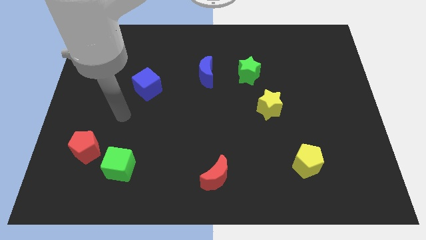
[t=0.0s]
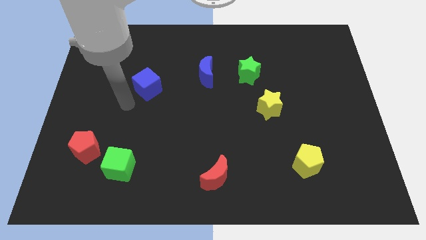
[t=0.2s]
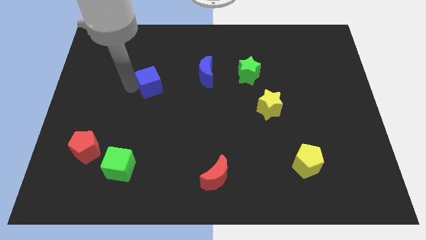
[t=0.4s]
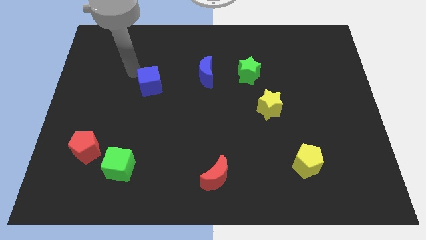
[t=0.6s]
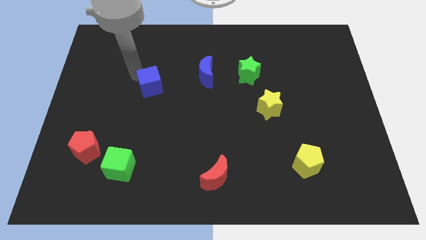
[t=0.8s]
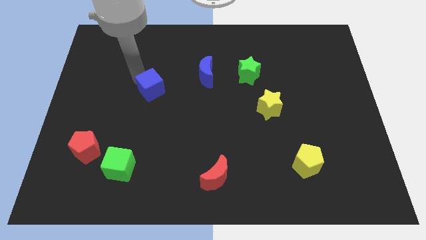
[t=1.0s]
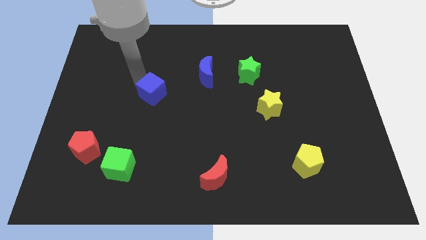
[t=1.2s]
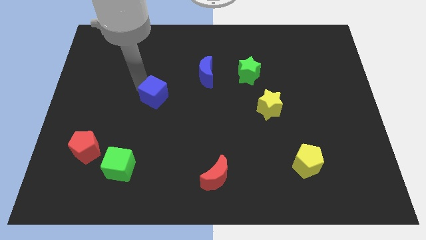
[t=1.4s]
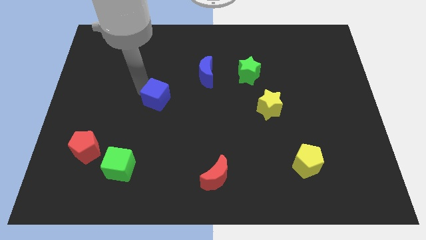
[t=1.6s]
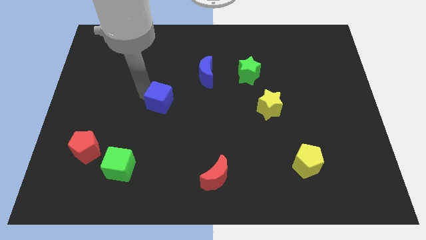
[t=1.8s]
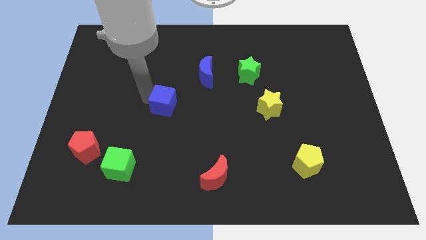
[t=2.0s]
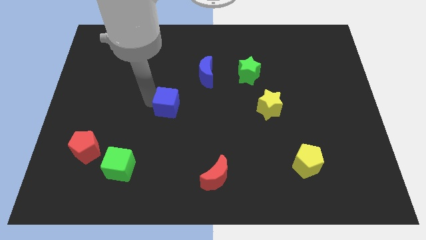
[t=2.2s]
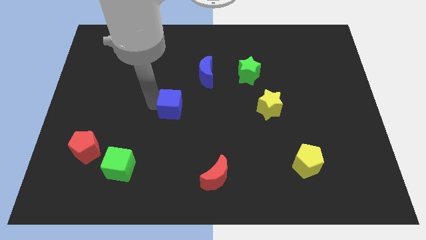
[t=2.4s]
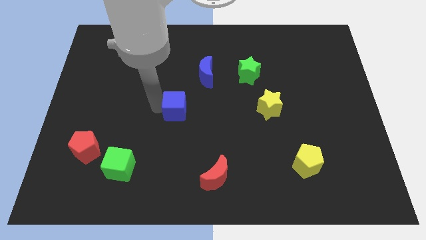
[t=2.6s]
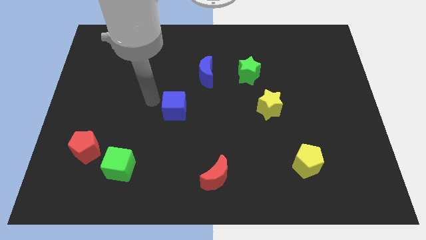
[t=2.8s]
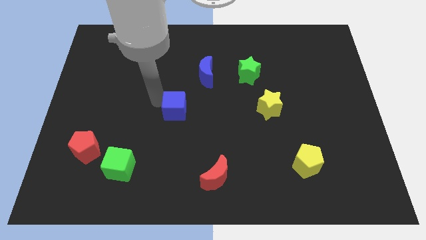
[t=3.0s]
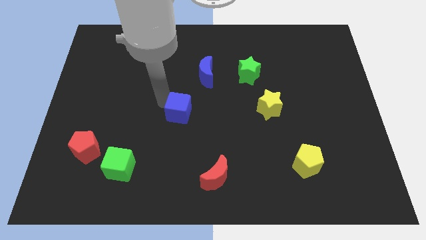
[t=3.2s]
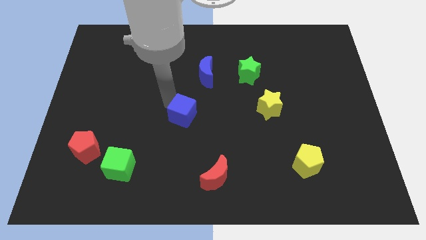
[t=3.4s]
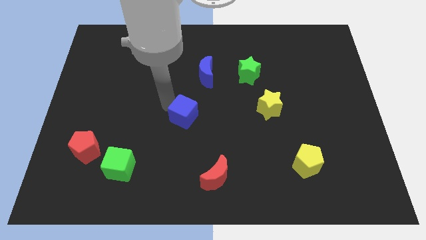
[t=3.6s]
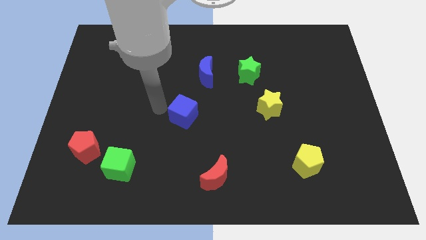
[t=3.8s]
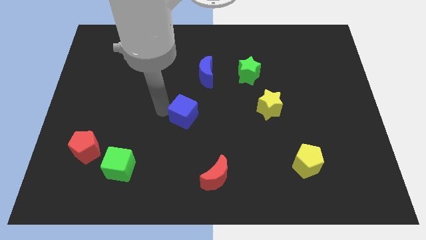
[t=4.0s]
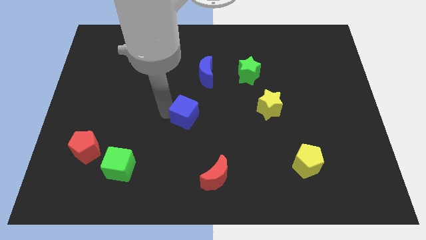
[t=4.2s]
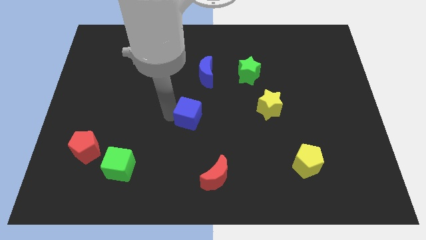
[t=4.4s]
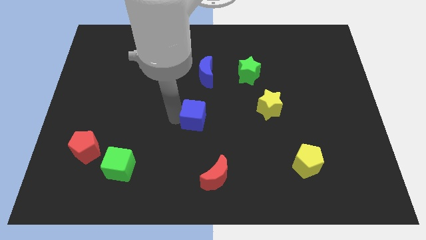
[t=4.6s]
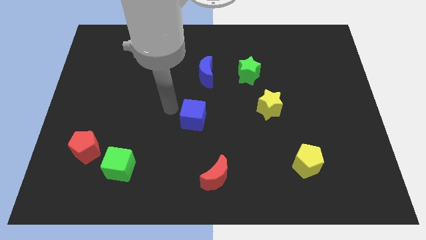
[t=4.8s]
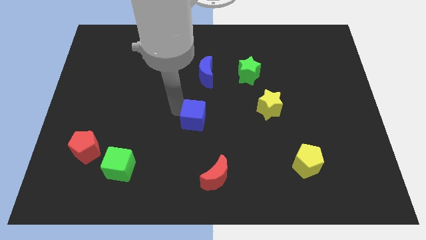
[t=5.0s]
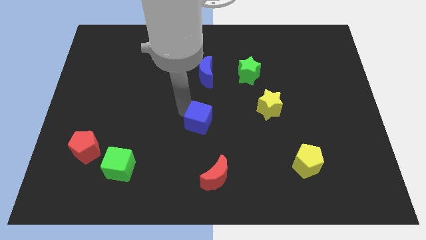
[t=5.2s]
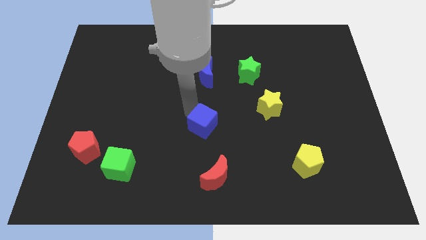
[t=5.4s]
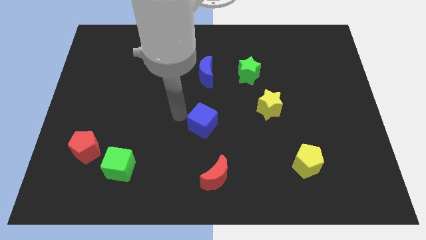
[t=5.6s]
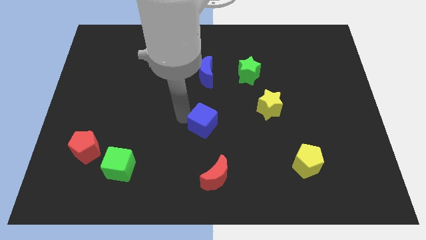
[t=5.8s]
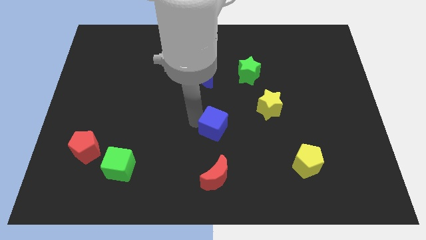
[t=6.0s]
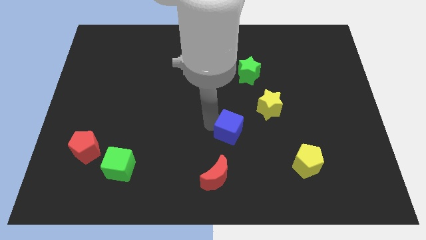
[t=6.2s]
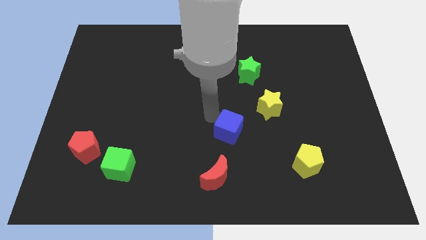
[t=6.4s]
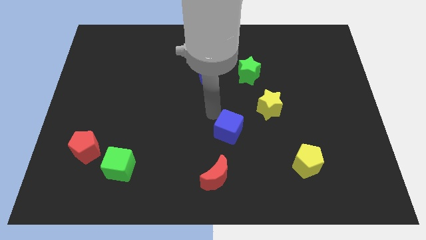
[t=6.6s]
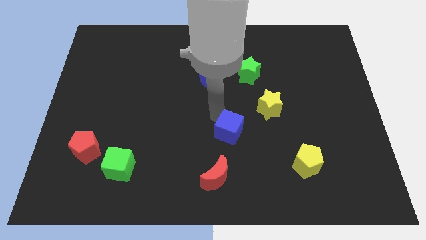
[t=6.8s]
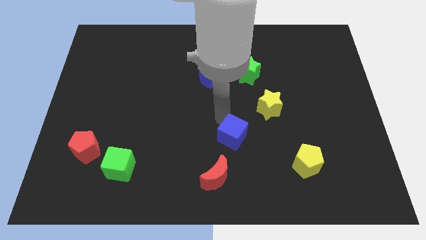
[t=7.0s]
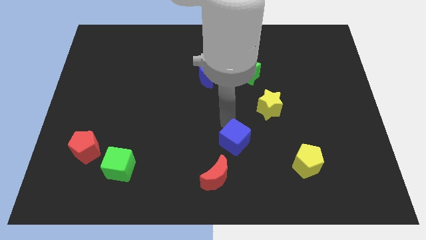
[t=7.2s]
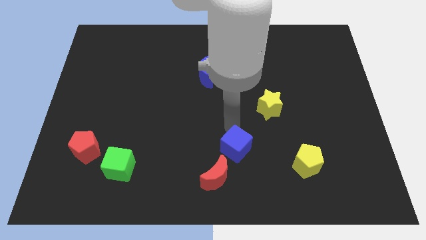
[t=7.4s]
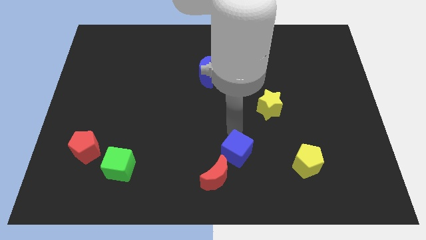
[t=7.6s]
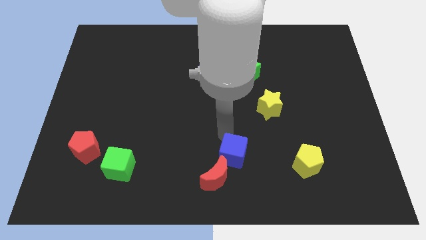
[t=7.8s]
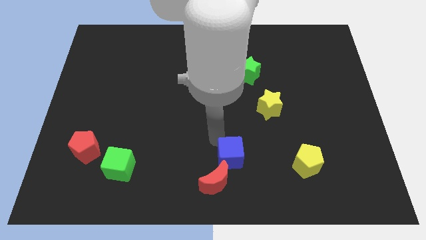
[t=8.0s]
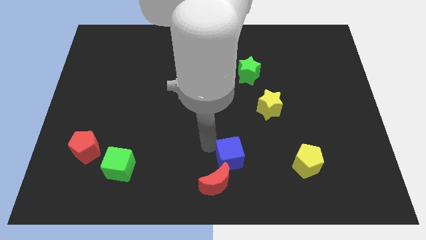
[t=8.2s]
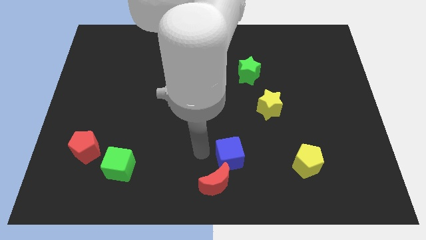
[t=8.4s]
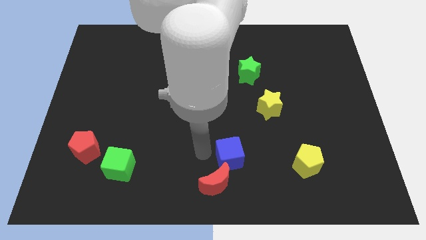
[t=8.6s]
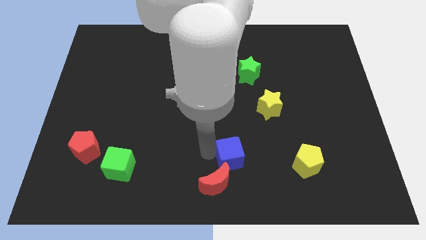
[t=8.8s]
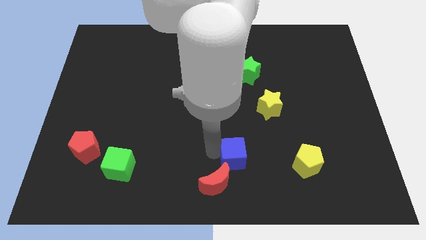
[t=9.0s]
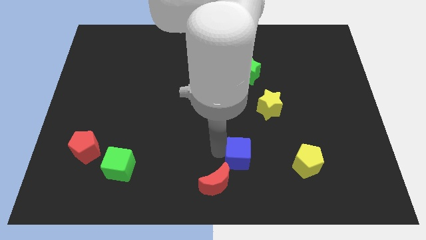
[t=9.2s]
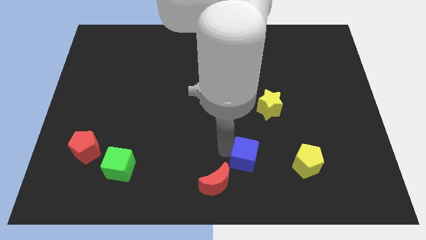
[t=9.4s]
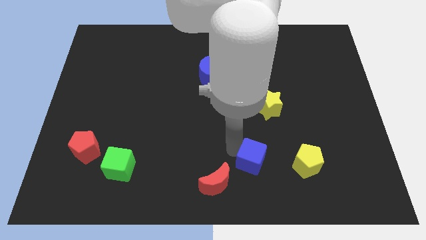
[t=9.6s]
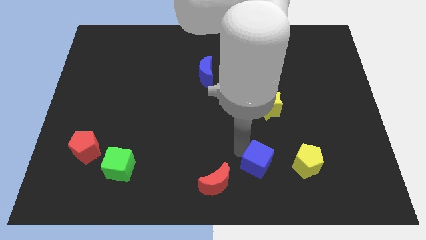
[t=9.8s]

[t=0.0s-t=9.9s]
slide the blue cube to the right of the red moon

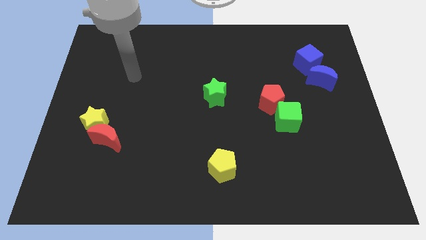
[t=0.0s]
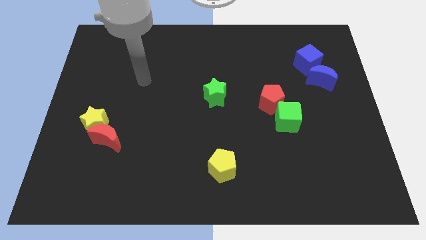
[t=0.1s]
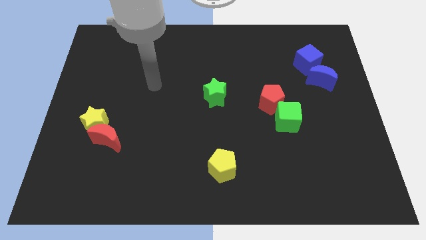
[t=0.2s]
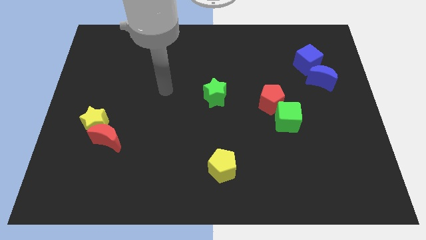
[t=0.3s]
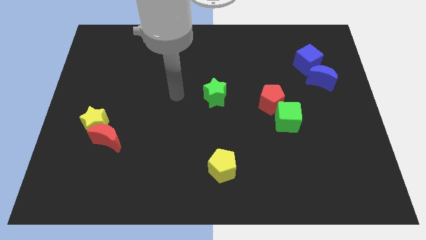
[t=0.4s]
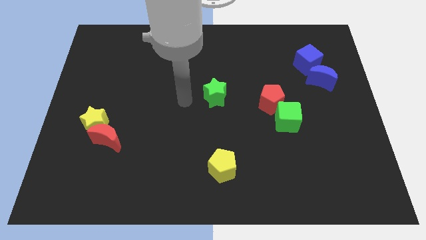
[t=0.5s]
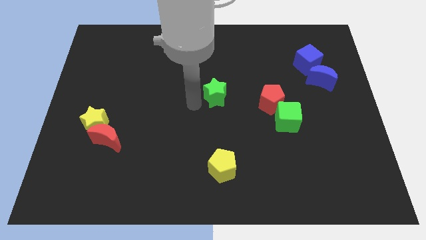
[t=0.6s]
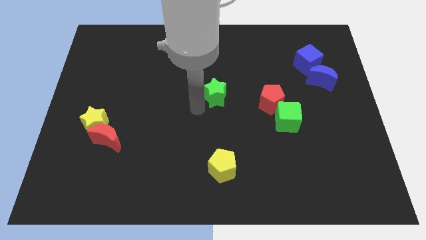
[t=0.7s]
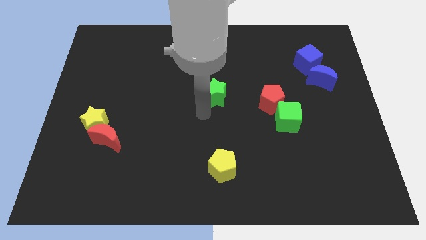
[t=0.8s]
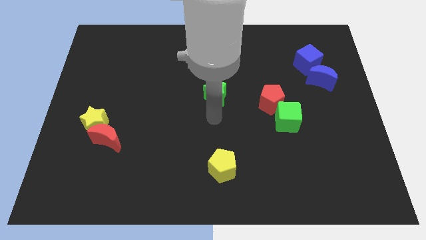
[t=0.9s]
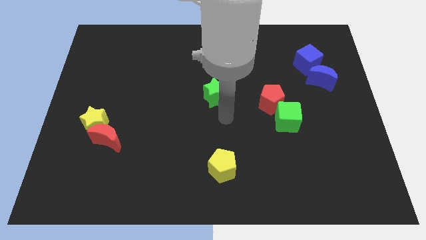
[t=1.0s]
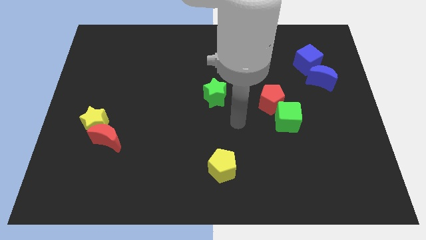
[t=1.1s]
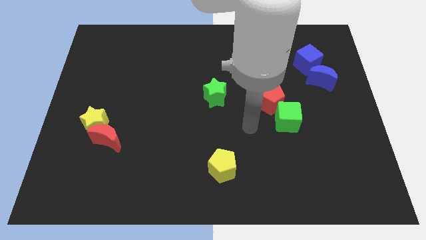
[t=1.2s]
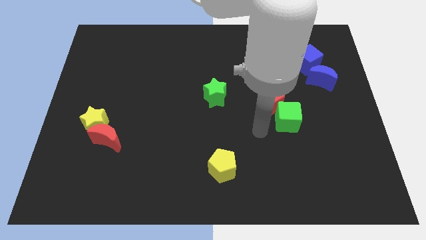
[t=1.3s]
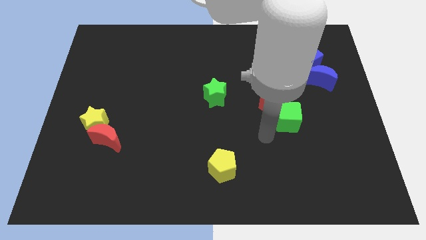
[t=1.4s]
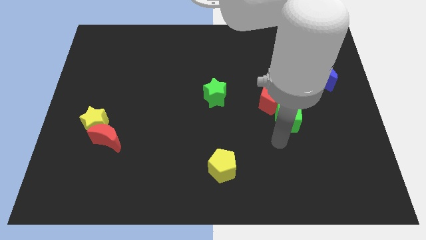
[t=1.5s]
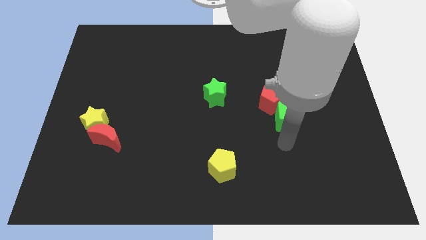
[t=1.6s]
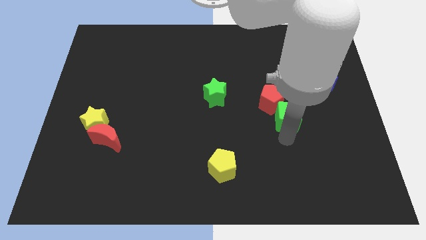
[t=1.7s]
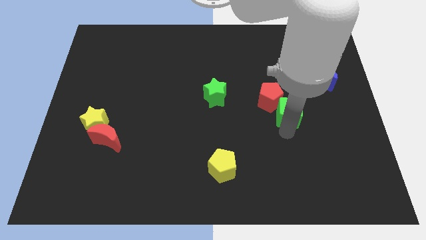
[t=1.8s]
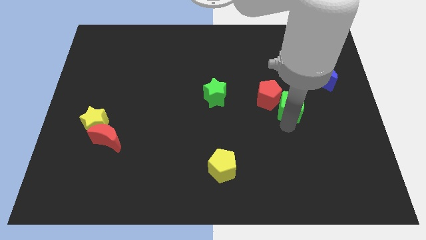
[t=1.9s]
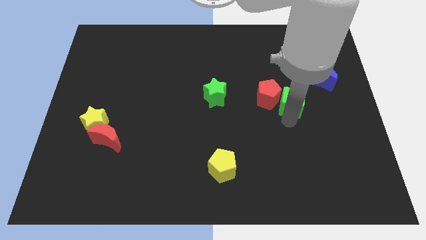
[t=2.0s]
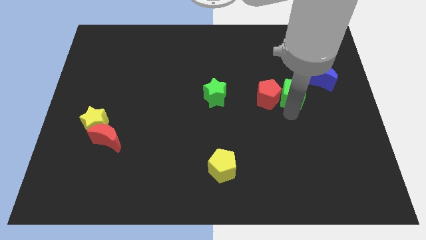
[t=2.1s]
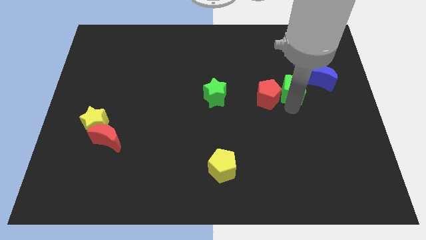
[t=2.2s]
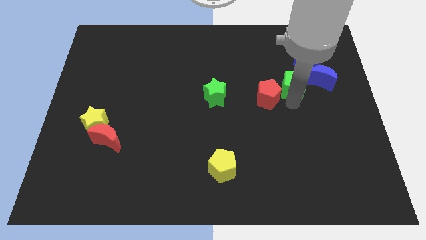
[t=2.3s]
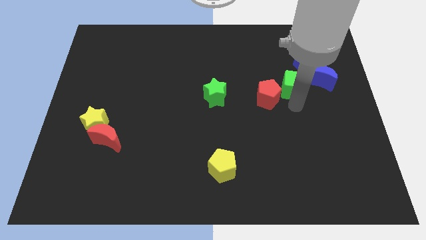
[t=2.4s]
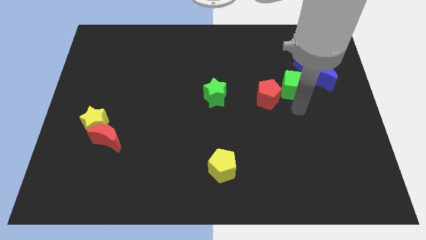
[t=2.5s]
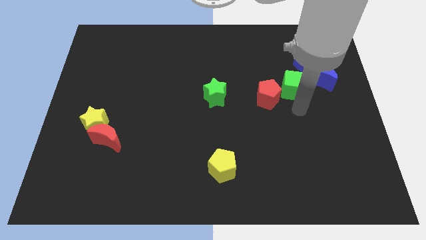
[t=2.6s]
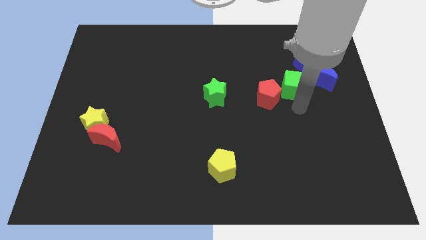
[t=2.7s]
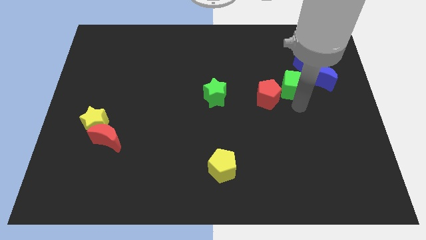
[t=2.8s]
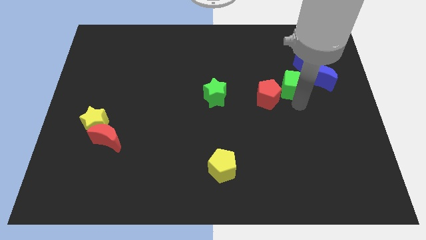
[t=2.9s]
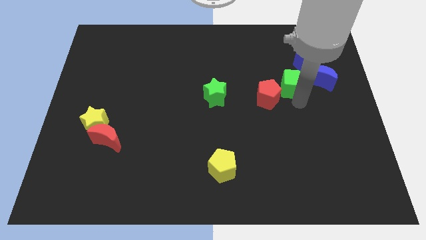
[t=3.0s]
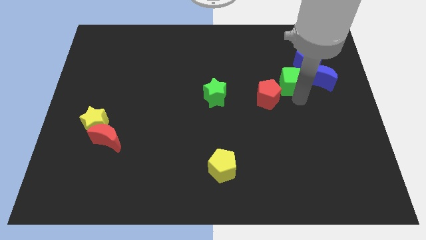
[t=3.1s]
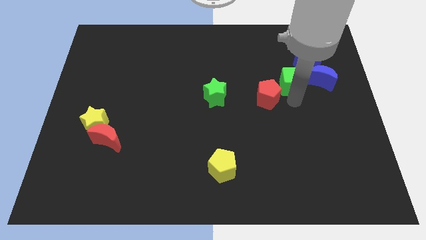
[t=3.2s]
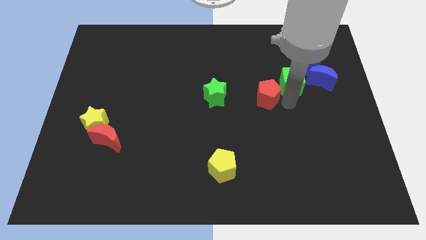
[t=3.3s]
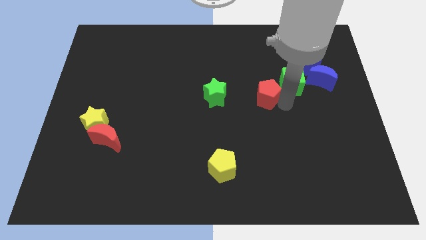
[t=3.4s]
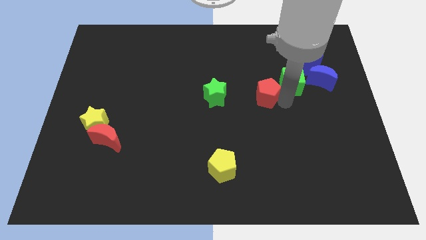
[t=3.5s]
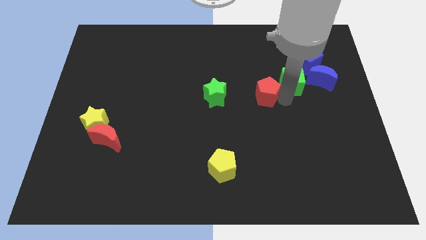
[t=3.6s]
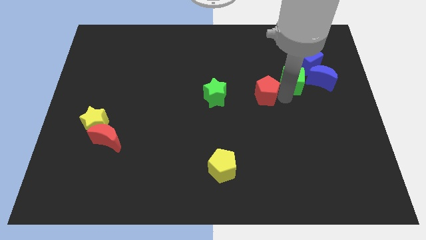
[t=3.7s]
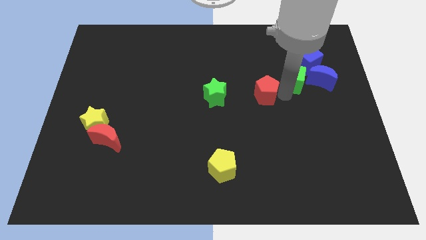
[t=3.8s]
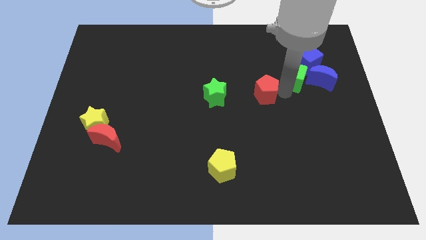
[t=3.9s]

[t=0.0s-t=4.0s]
push the green cube diagonally up and to the left of the blue moon
